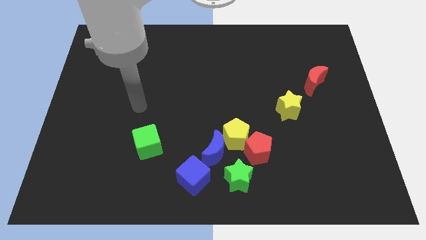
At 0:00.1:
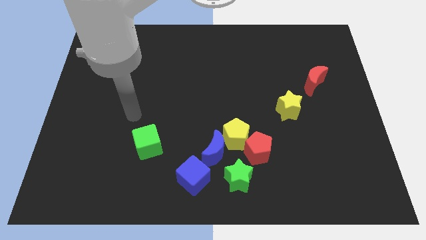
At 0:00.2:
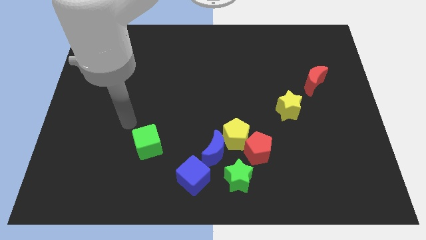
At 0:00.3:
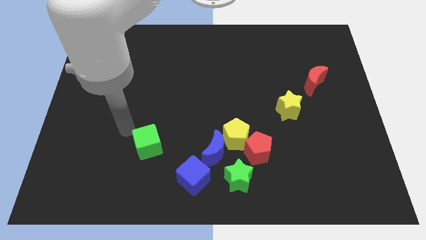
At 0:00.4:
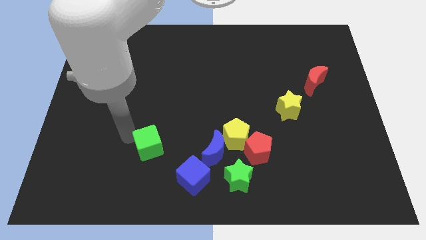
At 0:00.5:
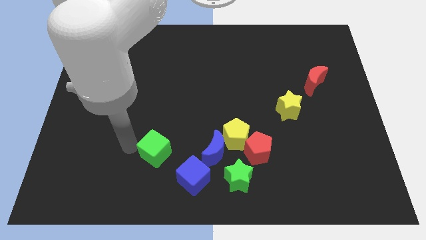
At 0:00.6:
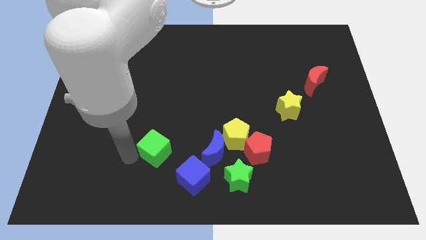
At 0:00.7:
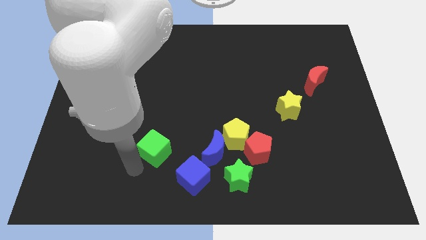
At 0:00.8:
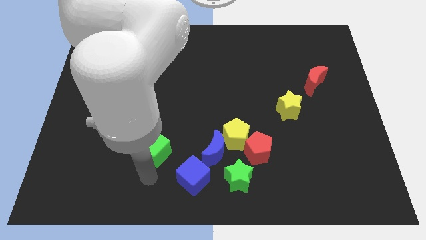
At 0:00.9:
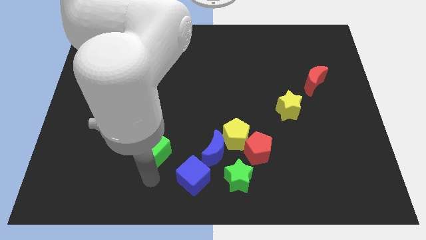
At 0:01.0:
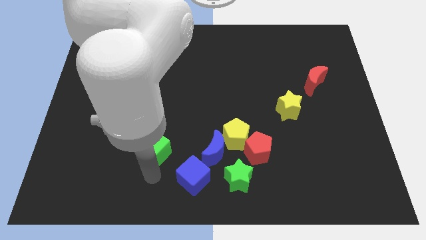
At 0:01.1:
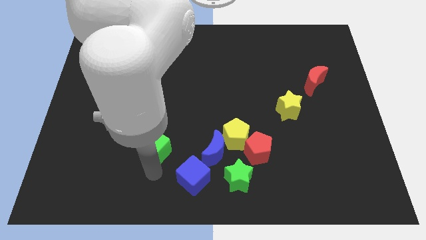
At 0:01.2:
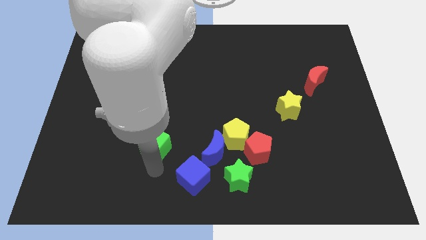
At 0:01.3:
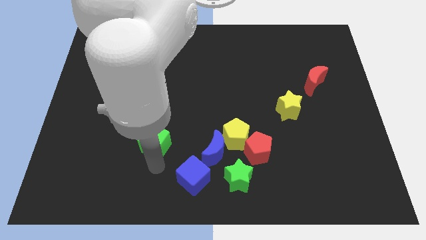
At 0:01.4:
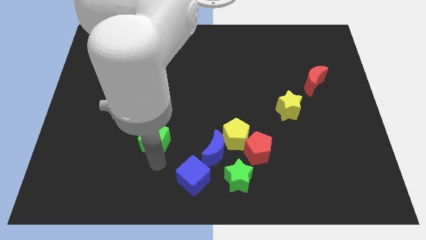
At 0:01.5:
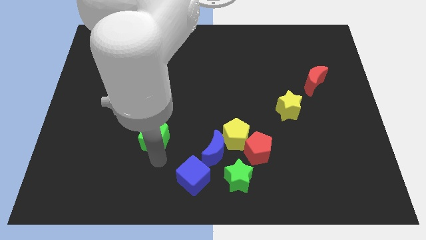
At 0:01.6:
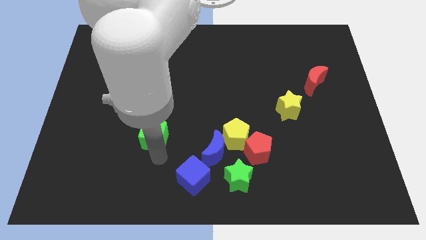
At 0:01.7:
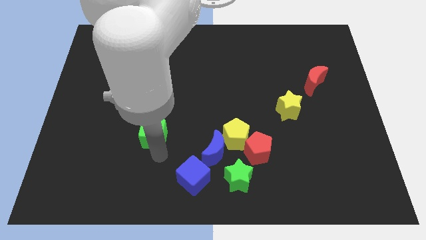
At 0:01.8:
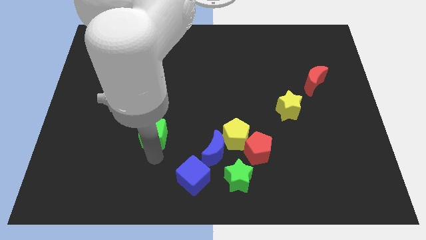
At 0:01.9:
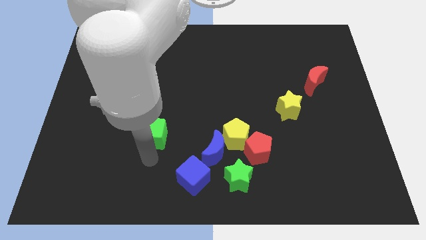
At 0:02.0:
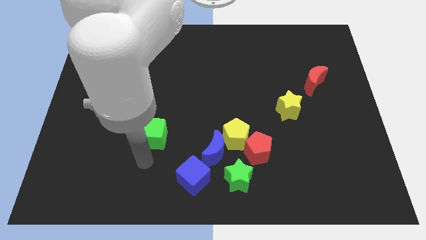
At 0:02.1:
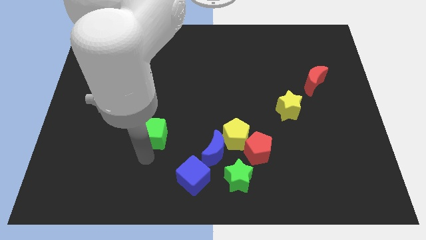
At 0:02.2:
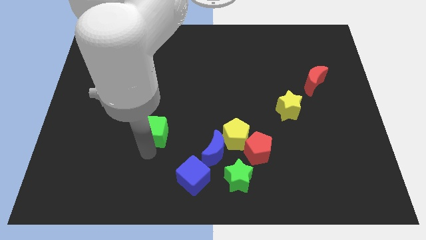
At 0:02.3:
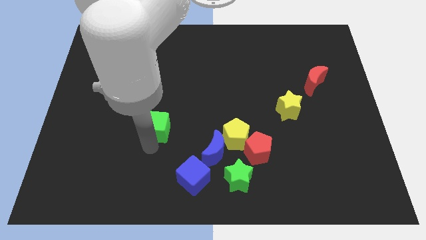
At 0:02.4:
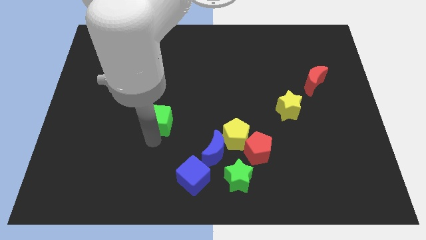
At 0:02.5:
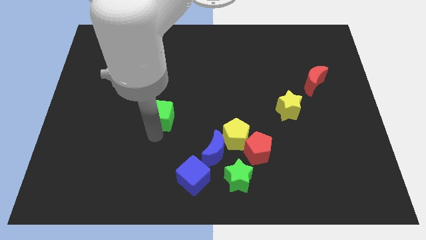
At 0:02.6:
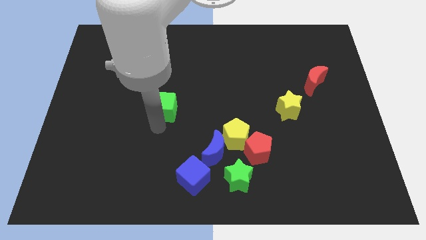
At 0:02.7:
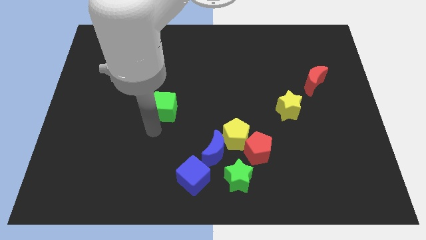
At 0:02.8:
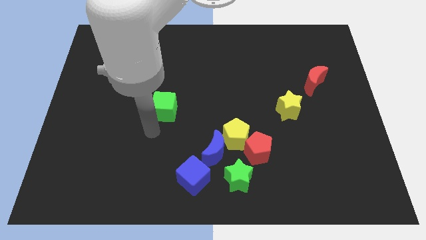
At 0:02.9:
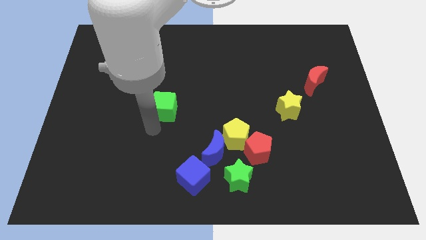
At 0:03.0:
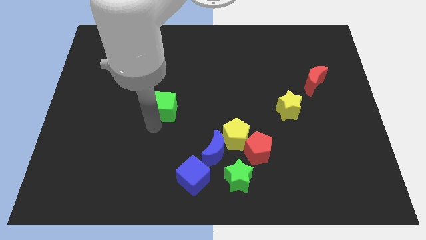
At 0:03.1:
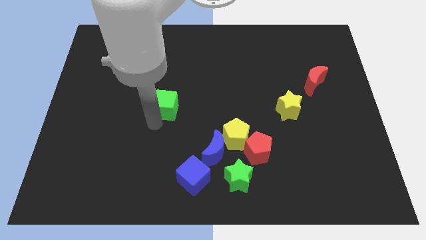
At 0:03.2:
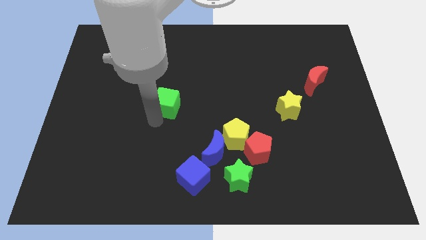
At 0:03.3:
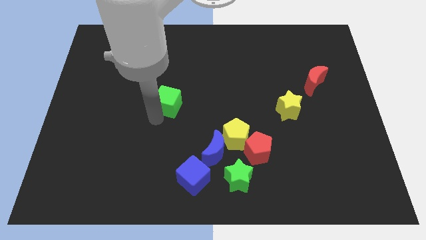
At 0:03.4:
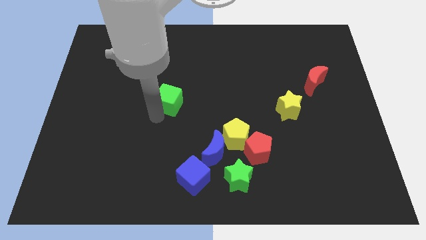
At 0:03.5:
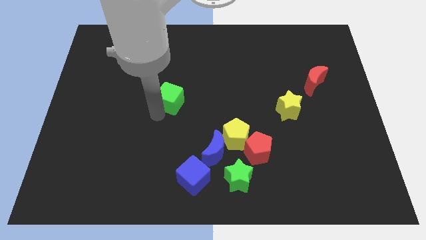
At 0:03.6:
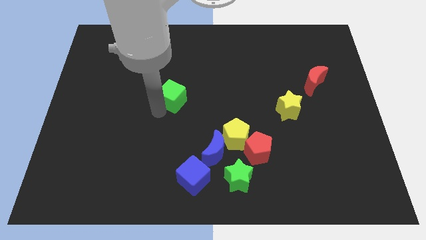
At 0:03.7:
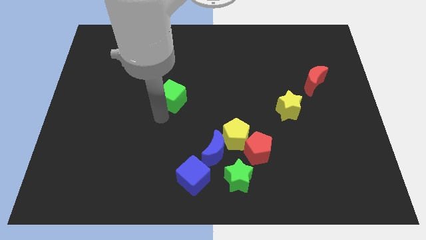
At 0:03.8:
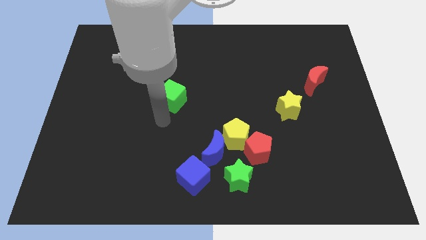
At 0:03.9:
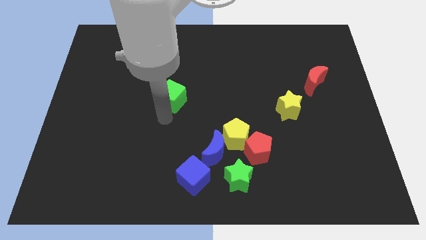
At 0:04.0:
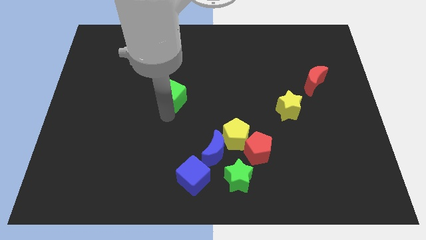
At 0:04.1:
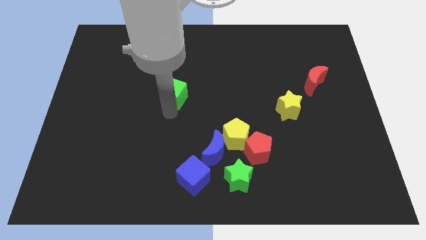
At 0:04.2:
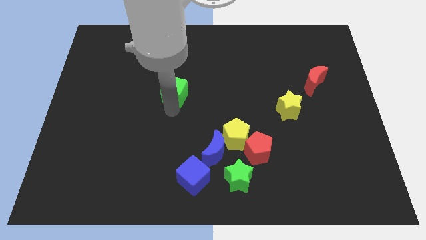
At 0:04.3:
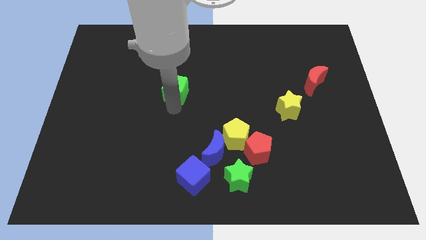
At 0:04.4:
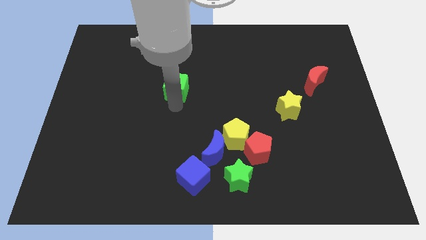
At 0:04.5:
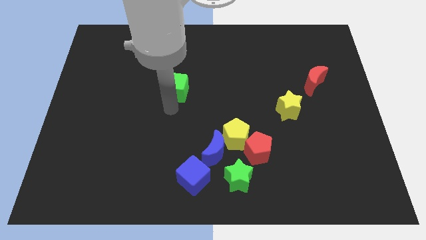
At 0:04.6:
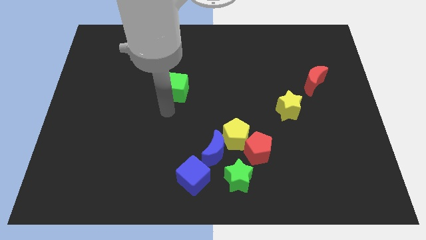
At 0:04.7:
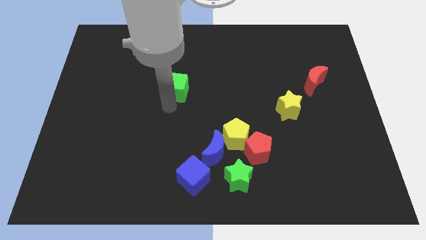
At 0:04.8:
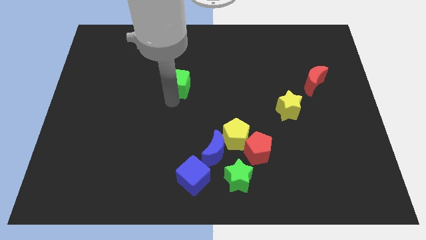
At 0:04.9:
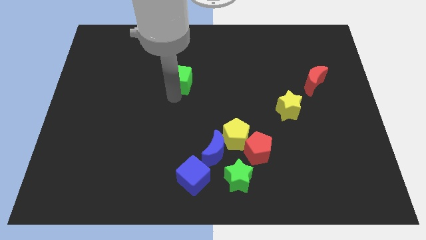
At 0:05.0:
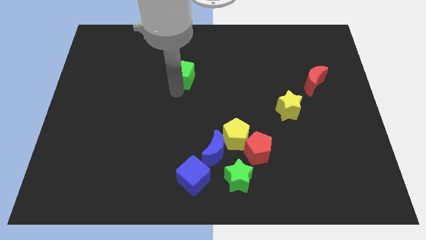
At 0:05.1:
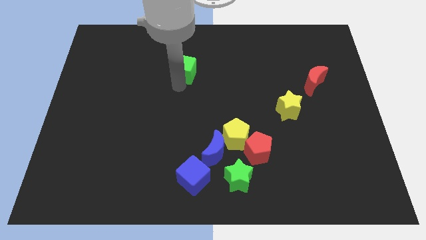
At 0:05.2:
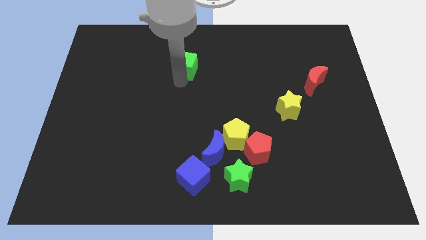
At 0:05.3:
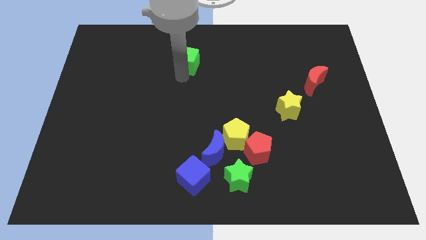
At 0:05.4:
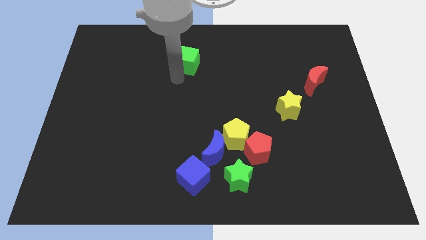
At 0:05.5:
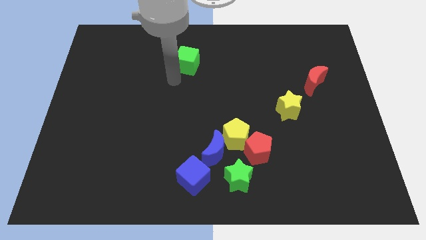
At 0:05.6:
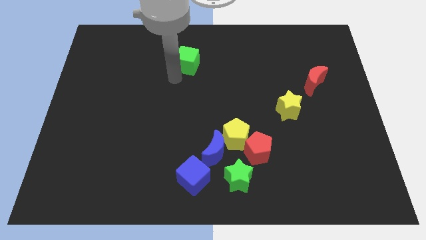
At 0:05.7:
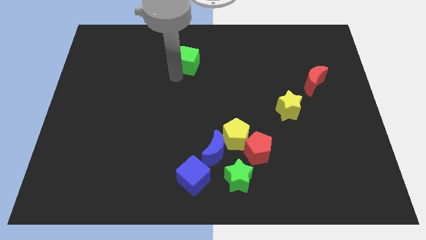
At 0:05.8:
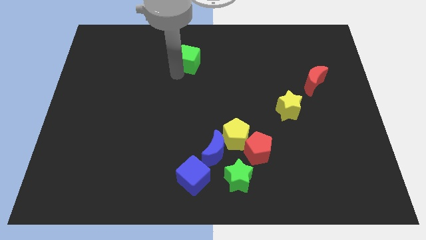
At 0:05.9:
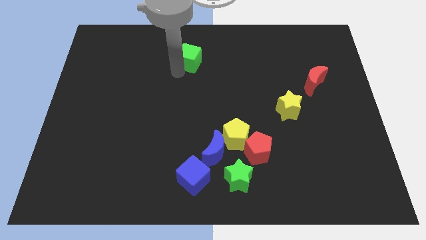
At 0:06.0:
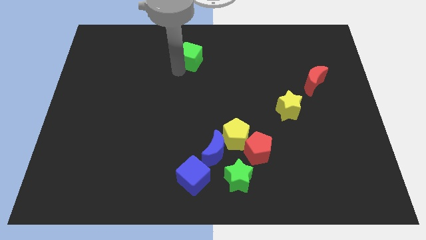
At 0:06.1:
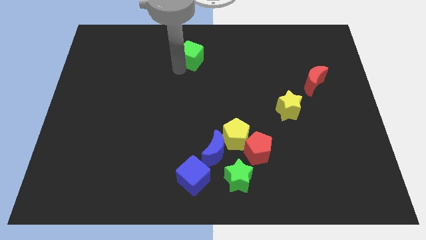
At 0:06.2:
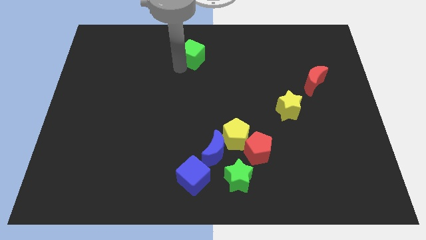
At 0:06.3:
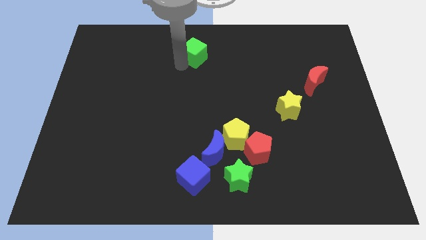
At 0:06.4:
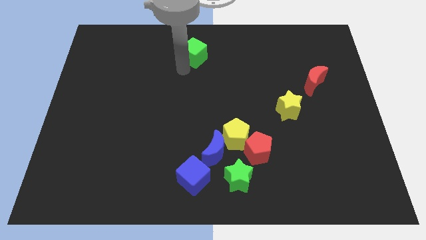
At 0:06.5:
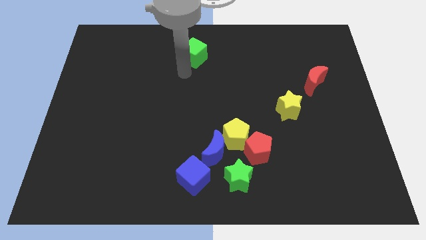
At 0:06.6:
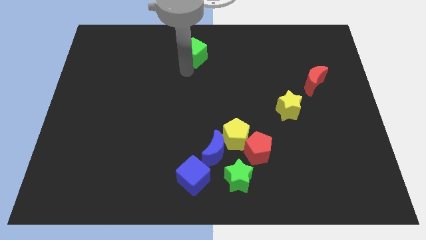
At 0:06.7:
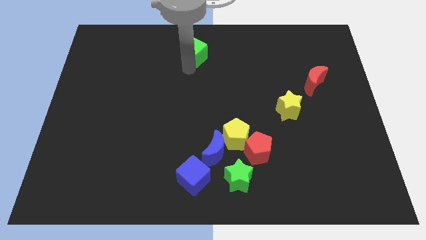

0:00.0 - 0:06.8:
put the green cube to the towards your base
